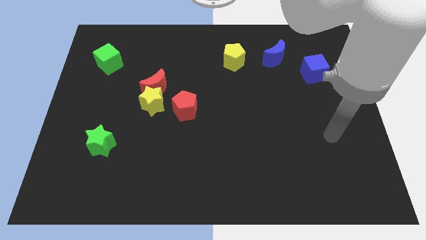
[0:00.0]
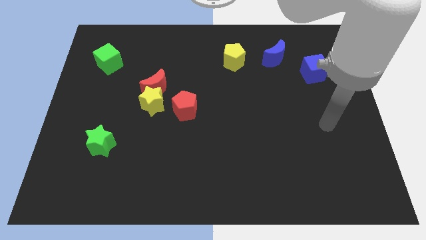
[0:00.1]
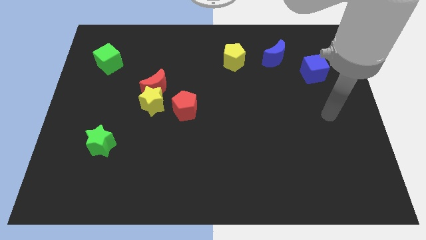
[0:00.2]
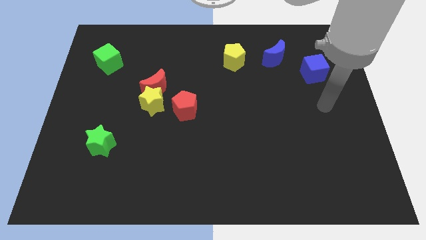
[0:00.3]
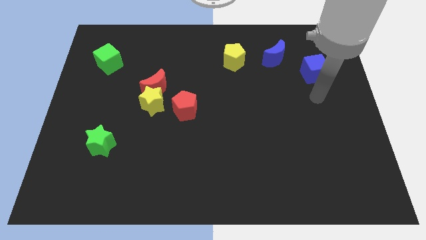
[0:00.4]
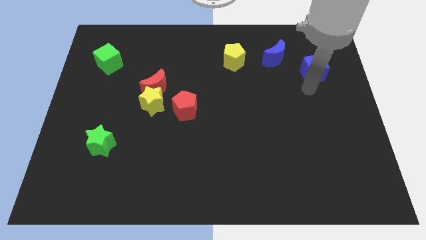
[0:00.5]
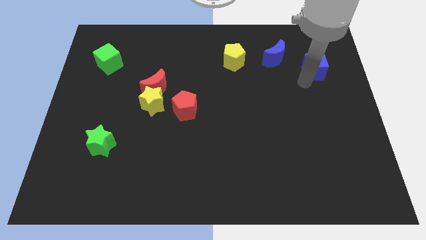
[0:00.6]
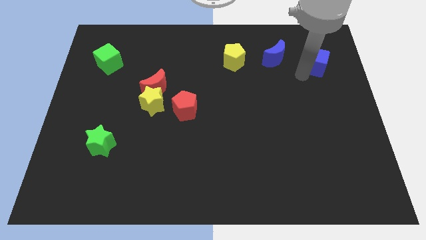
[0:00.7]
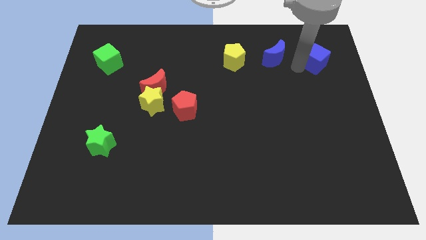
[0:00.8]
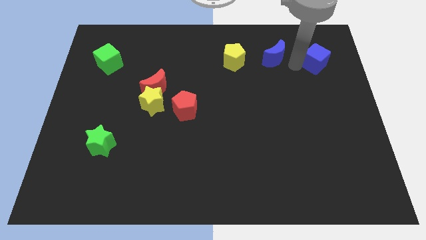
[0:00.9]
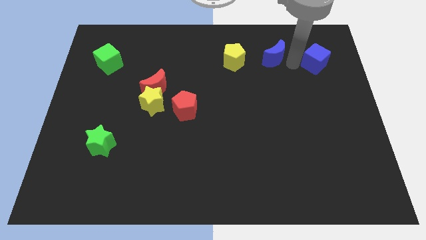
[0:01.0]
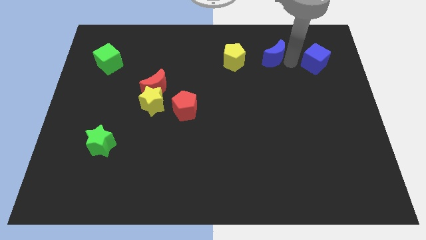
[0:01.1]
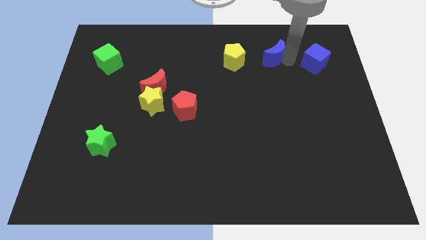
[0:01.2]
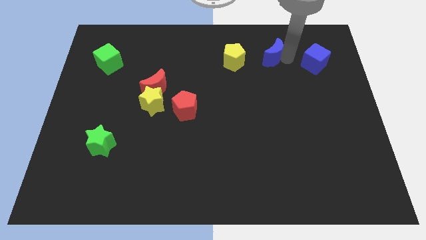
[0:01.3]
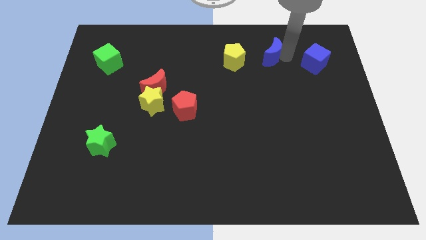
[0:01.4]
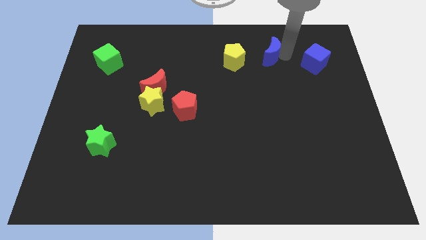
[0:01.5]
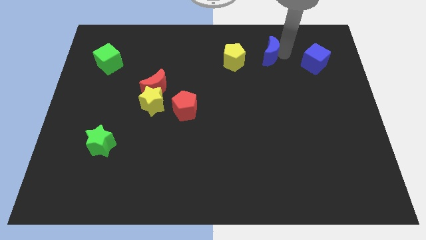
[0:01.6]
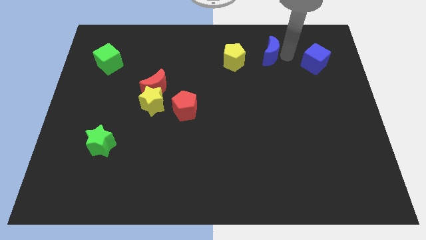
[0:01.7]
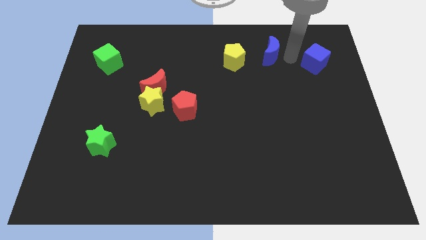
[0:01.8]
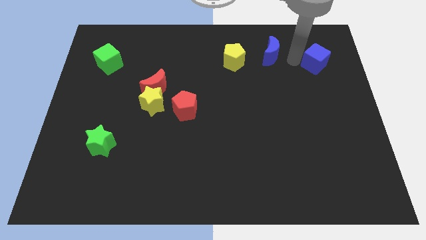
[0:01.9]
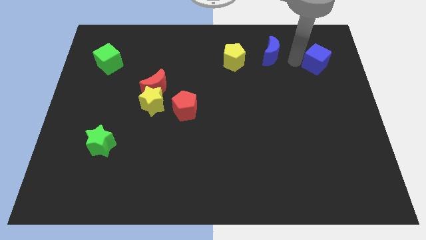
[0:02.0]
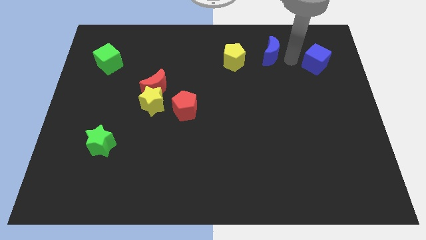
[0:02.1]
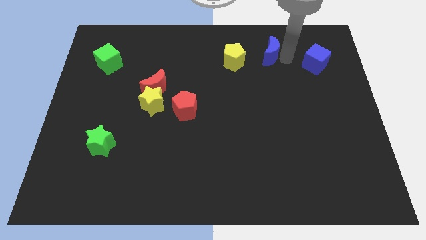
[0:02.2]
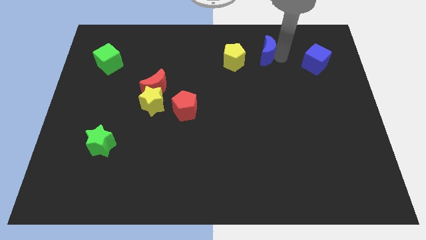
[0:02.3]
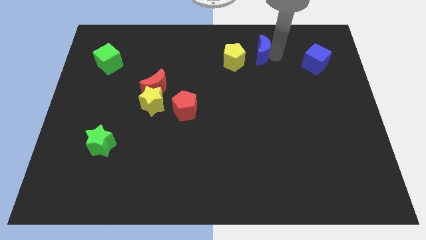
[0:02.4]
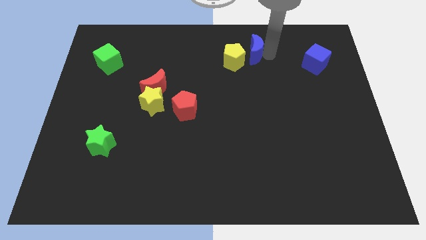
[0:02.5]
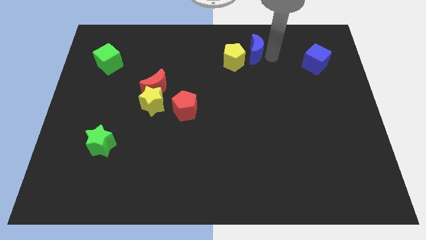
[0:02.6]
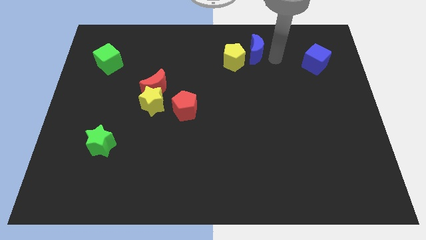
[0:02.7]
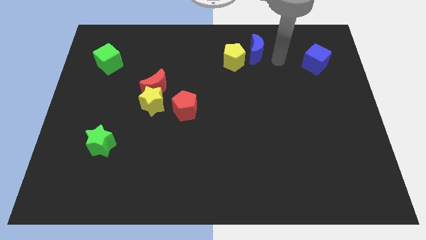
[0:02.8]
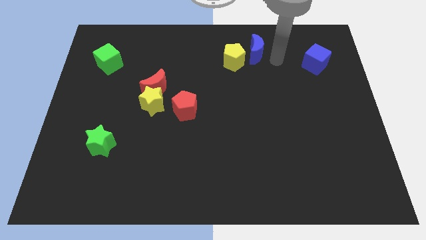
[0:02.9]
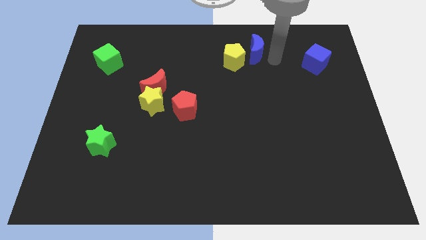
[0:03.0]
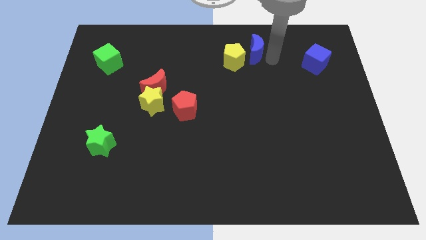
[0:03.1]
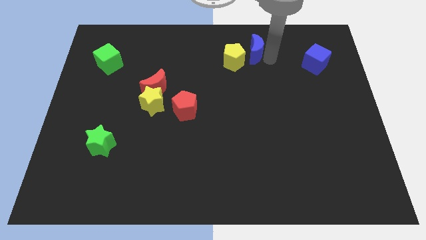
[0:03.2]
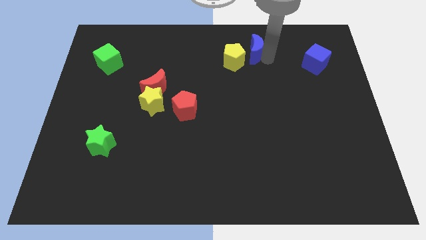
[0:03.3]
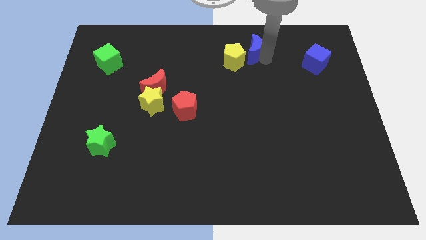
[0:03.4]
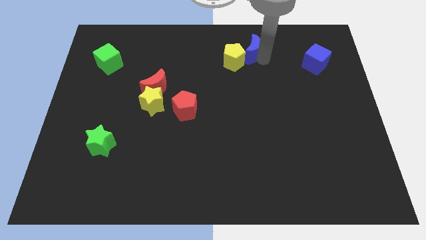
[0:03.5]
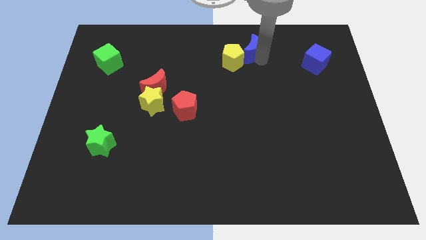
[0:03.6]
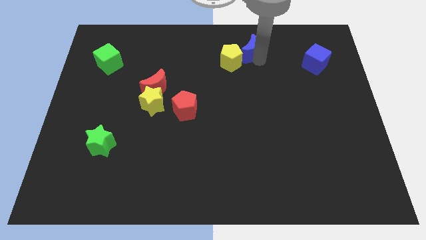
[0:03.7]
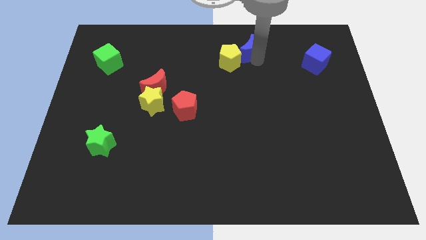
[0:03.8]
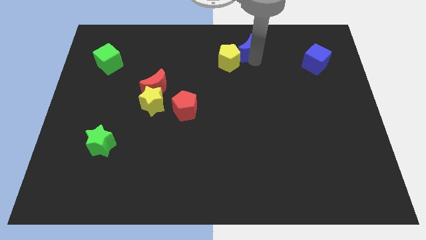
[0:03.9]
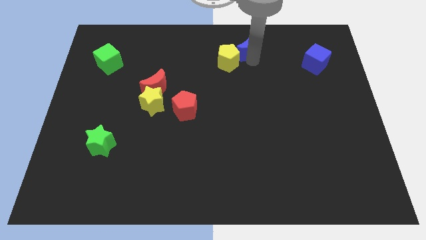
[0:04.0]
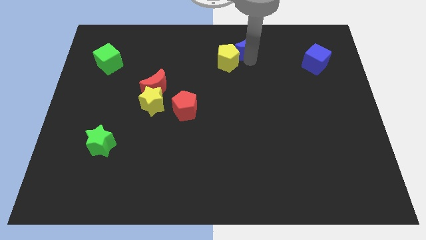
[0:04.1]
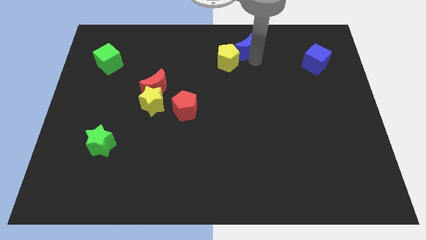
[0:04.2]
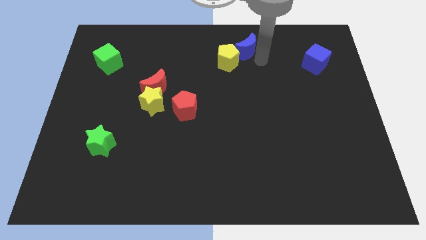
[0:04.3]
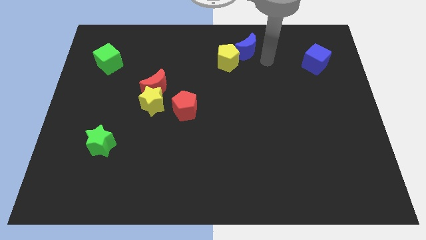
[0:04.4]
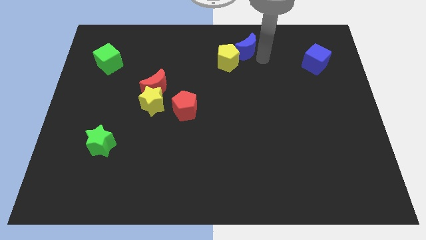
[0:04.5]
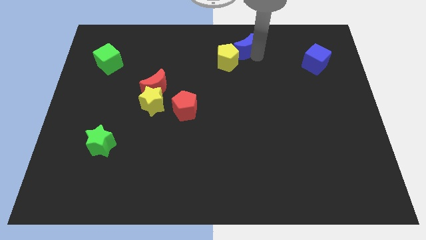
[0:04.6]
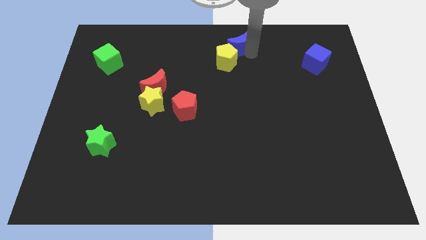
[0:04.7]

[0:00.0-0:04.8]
push the blue moon to the top

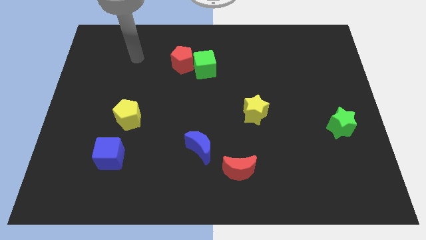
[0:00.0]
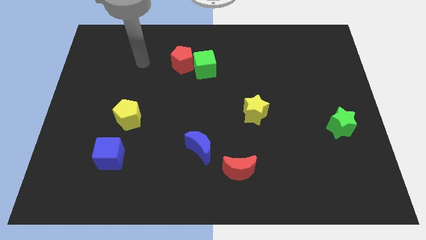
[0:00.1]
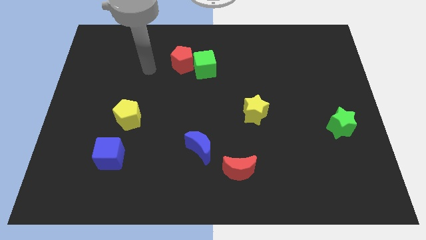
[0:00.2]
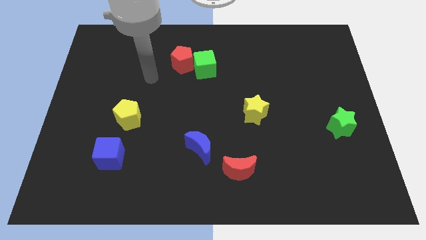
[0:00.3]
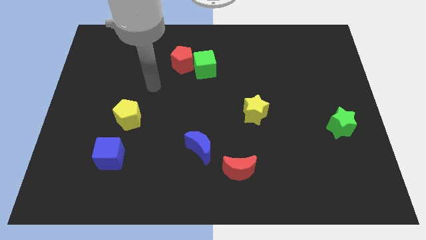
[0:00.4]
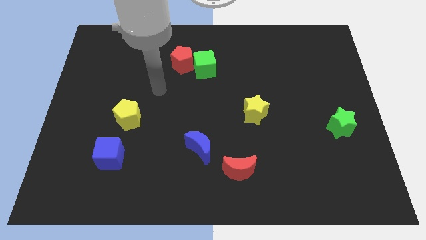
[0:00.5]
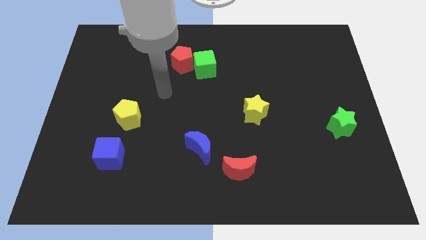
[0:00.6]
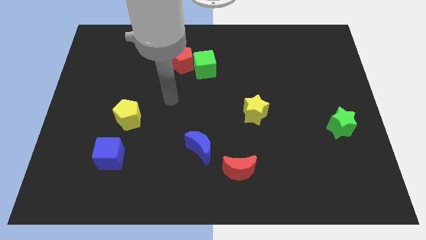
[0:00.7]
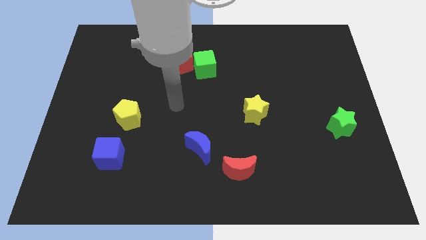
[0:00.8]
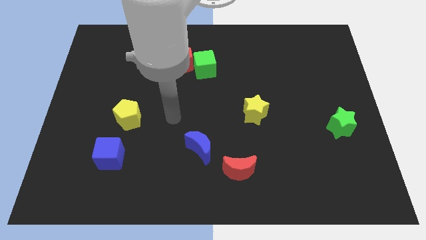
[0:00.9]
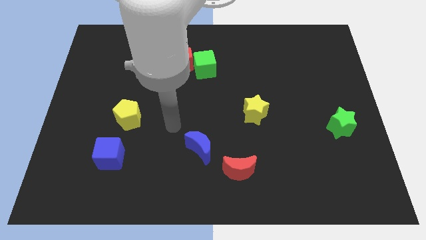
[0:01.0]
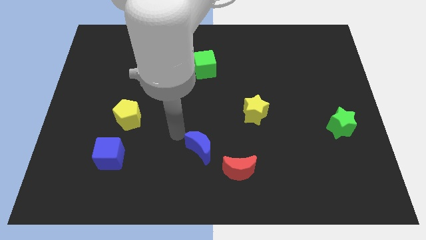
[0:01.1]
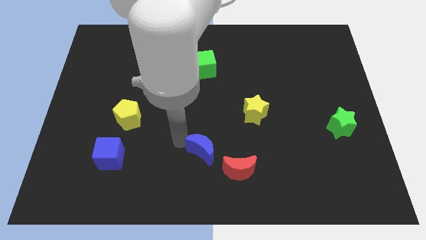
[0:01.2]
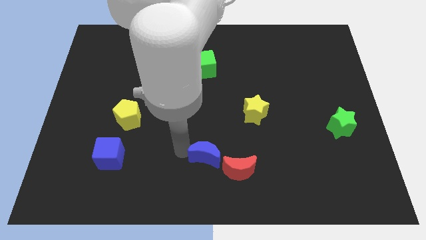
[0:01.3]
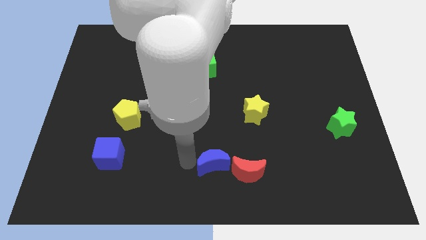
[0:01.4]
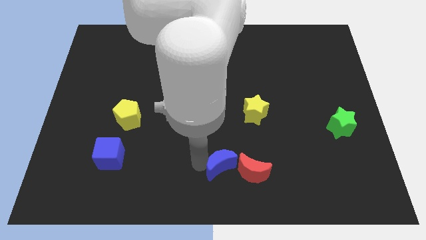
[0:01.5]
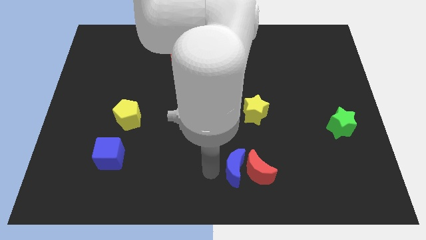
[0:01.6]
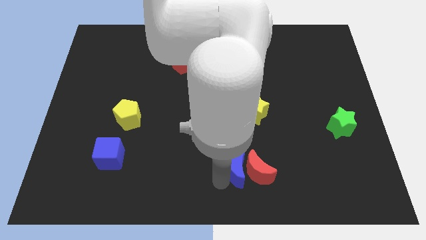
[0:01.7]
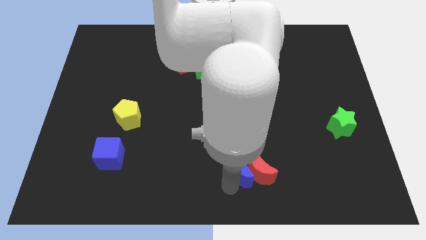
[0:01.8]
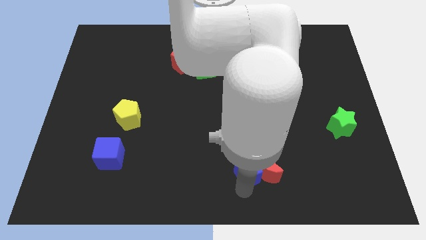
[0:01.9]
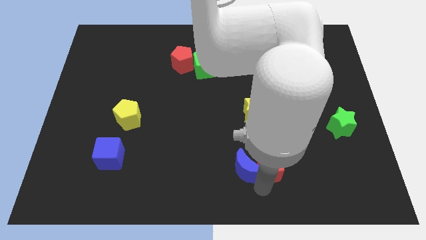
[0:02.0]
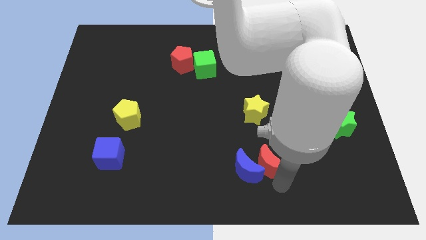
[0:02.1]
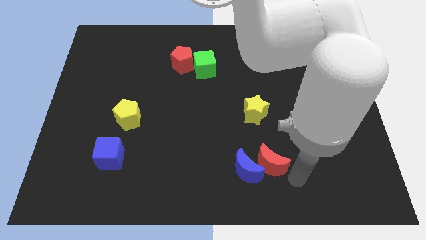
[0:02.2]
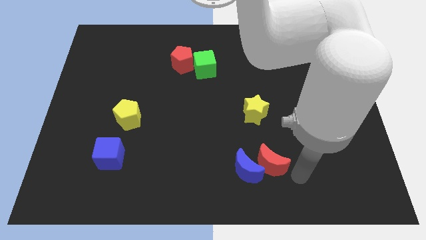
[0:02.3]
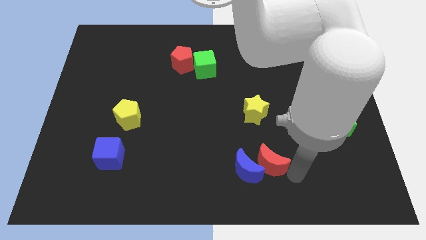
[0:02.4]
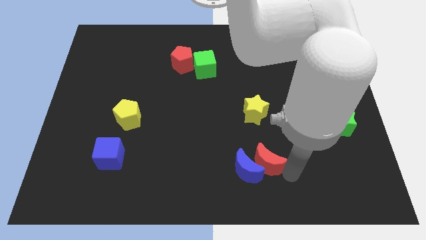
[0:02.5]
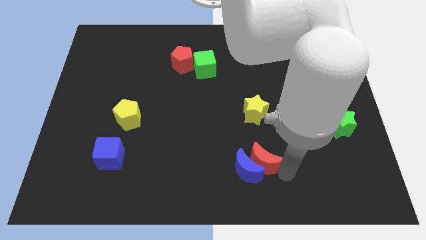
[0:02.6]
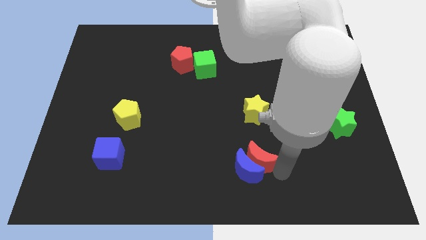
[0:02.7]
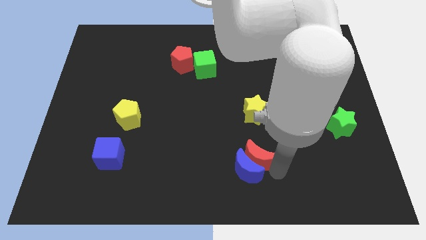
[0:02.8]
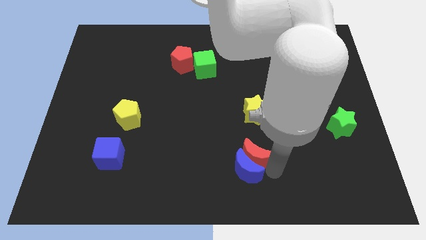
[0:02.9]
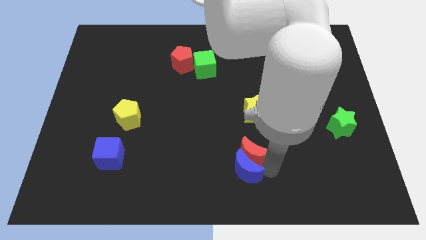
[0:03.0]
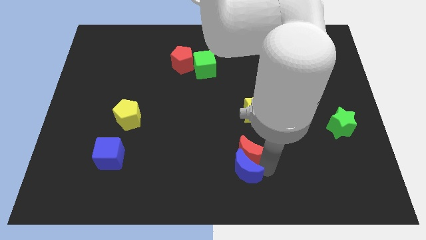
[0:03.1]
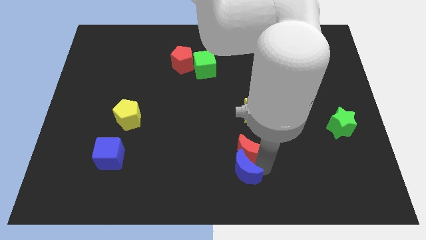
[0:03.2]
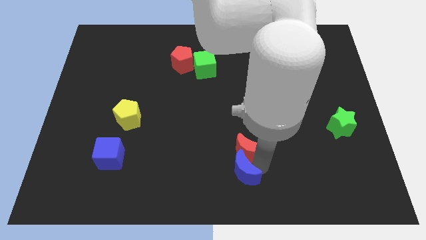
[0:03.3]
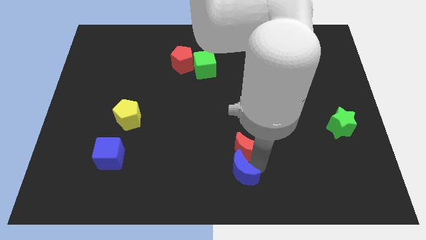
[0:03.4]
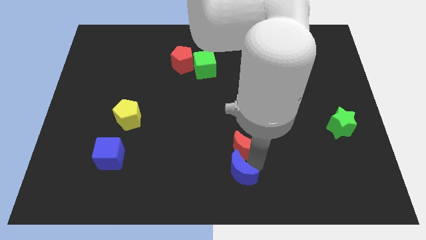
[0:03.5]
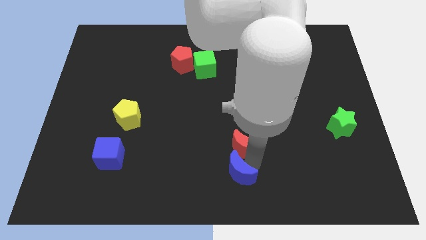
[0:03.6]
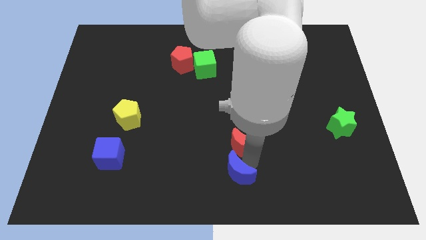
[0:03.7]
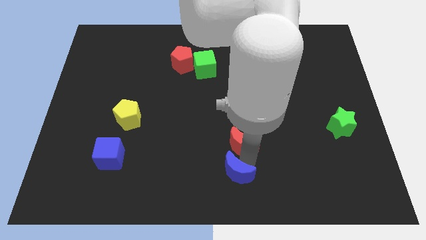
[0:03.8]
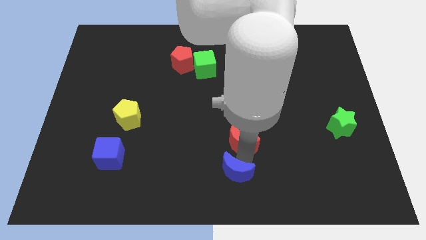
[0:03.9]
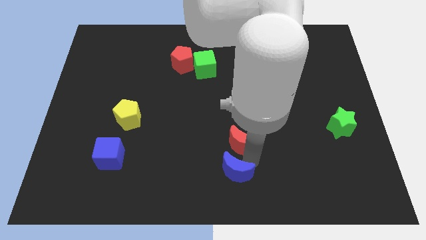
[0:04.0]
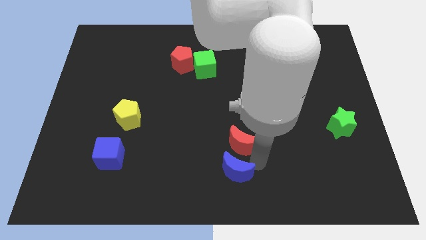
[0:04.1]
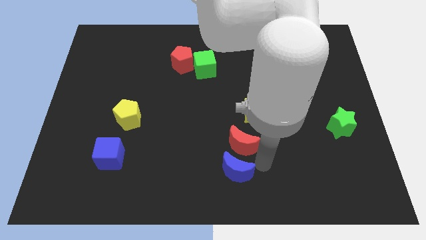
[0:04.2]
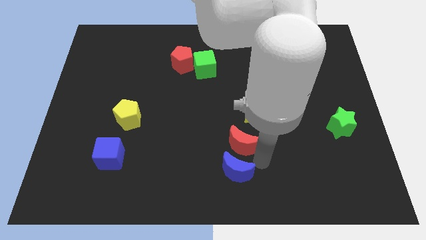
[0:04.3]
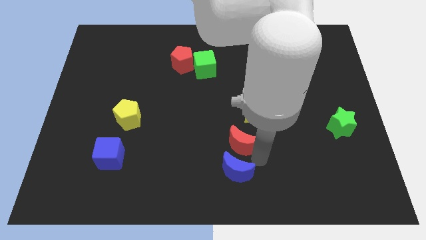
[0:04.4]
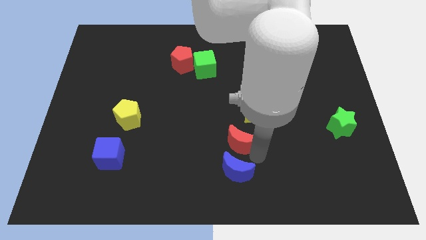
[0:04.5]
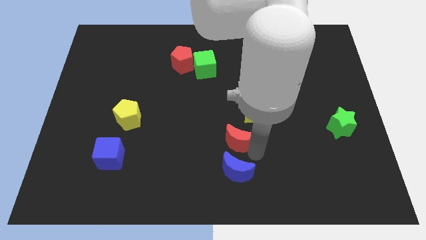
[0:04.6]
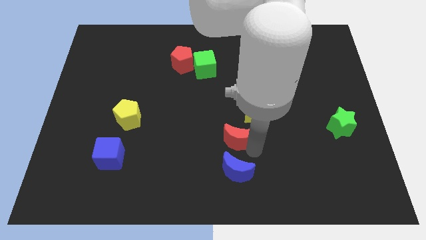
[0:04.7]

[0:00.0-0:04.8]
put the red moon to the middle
